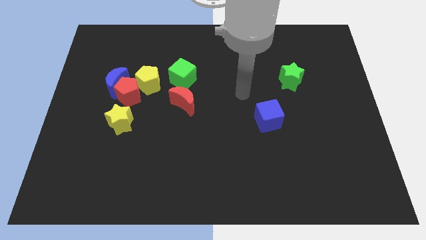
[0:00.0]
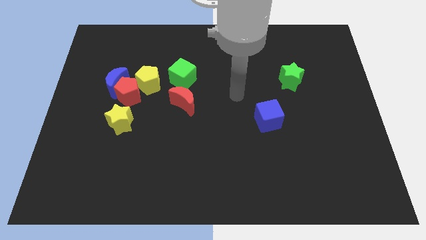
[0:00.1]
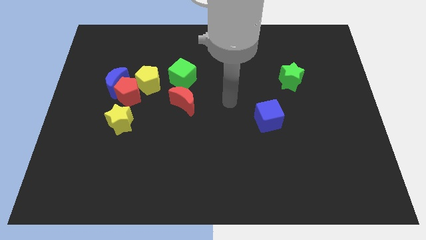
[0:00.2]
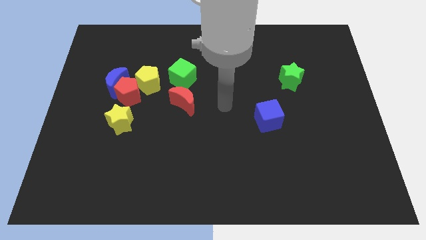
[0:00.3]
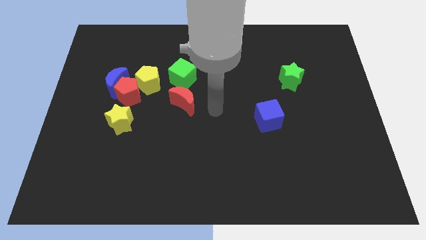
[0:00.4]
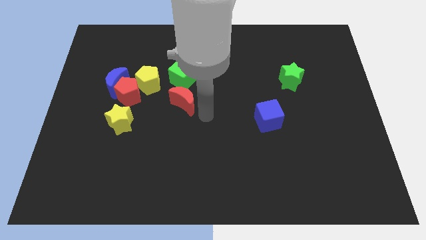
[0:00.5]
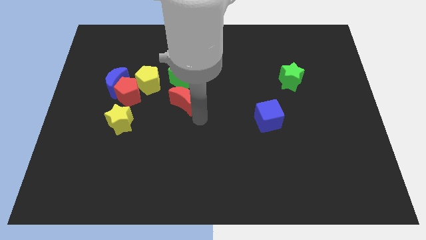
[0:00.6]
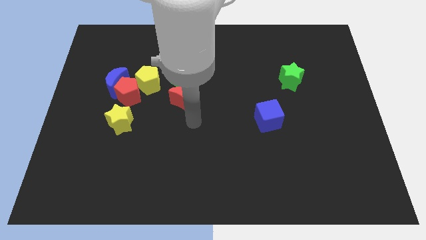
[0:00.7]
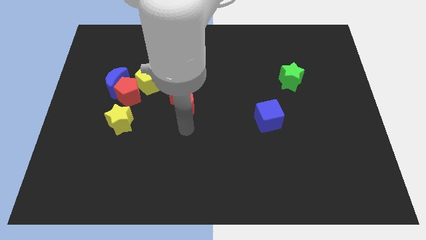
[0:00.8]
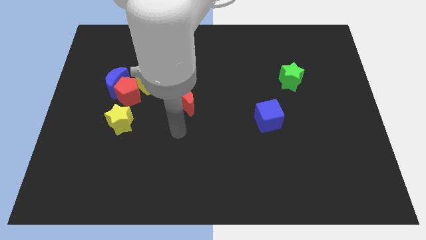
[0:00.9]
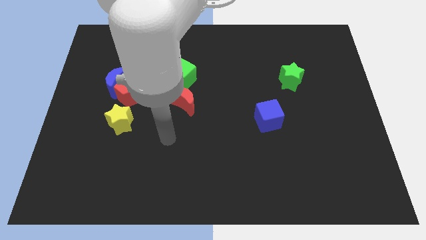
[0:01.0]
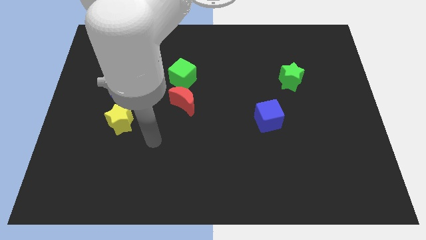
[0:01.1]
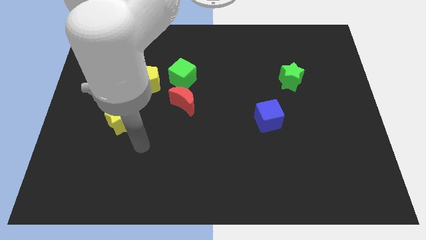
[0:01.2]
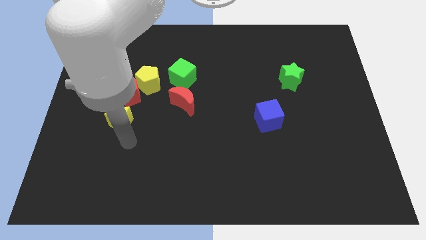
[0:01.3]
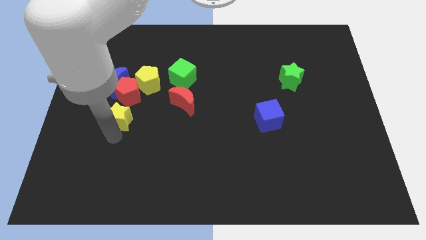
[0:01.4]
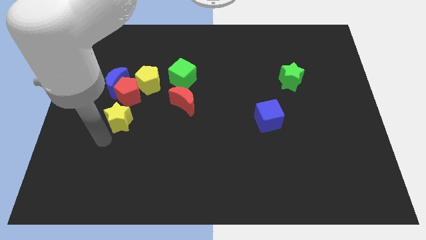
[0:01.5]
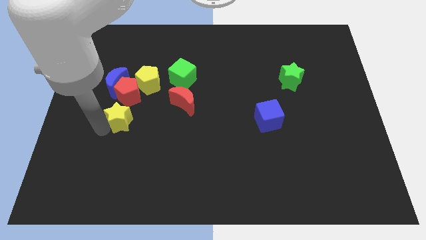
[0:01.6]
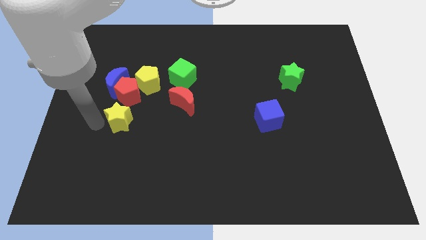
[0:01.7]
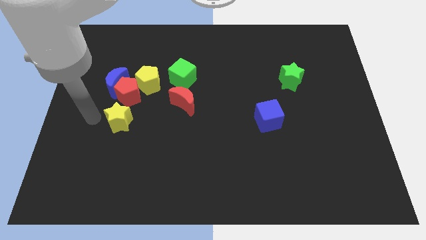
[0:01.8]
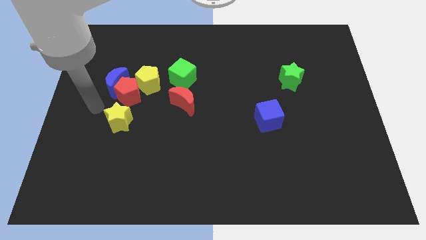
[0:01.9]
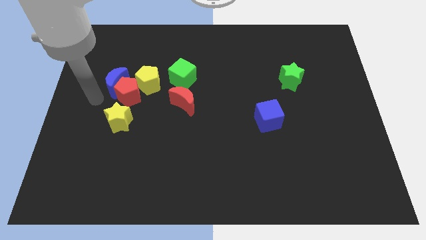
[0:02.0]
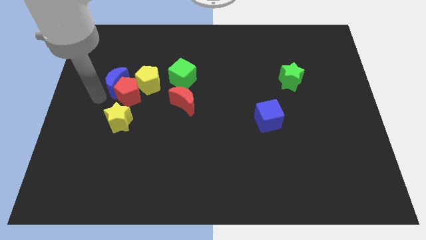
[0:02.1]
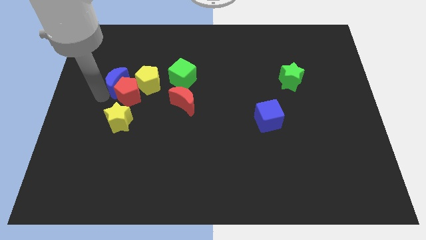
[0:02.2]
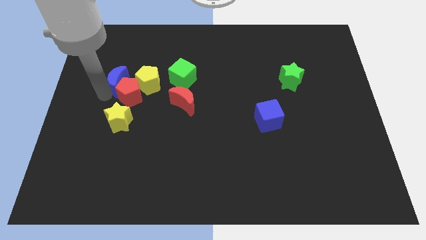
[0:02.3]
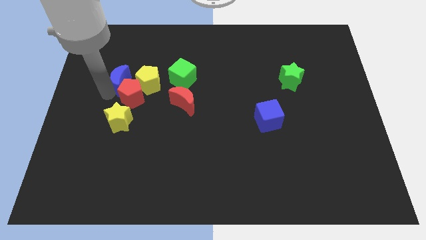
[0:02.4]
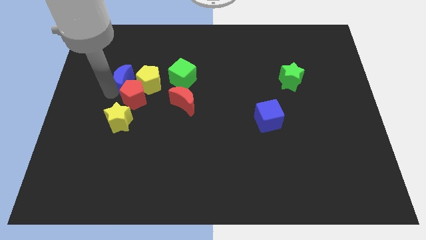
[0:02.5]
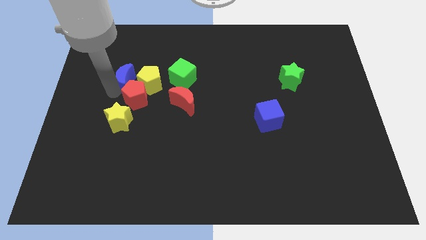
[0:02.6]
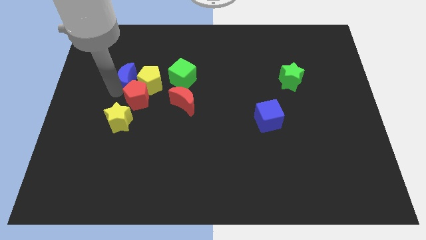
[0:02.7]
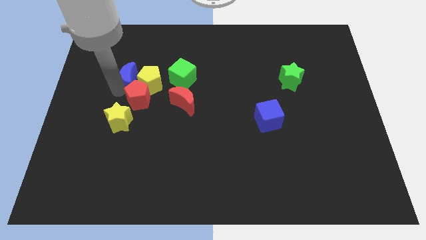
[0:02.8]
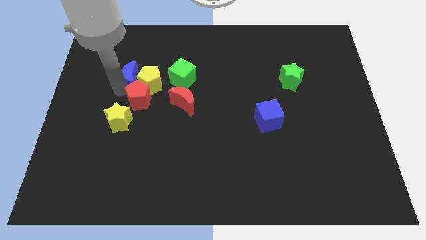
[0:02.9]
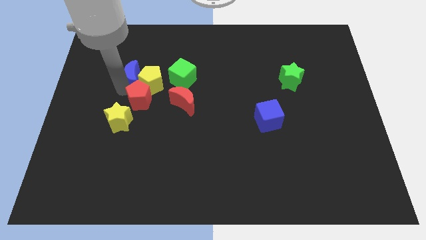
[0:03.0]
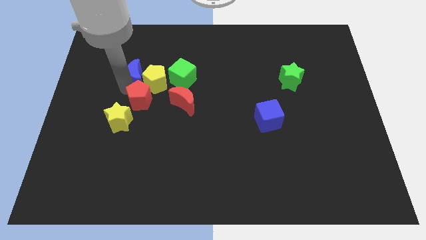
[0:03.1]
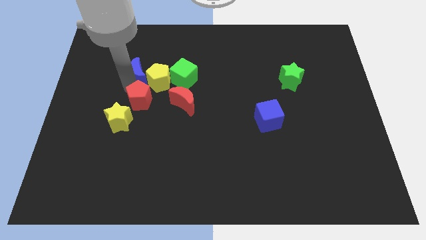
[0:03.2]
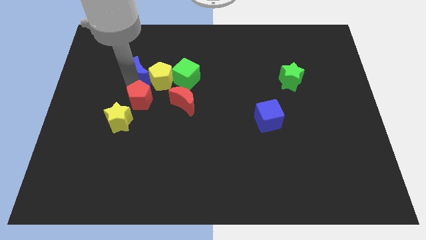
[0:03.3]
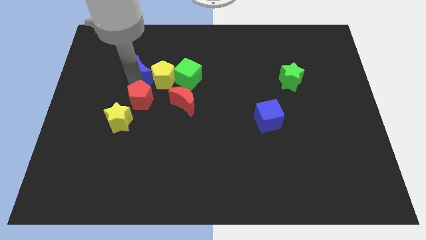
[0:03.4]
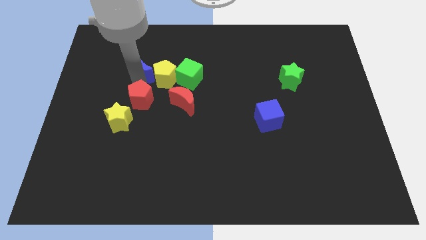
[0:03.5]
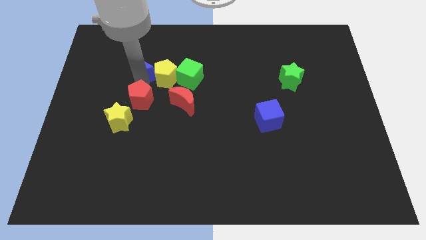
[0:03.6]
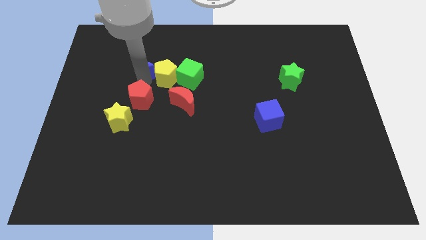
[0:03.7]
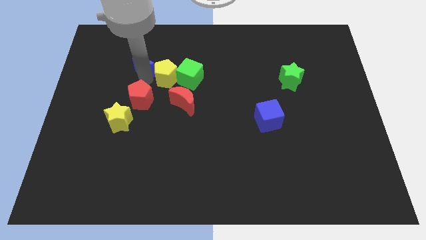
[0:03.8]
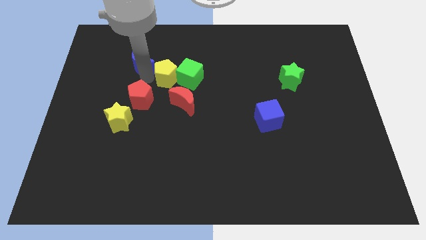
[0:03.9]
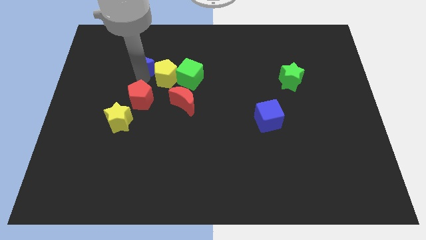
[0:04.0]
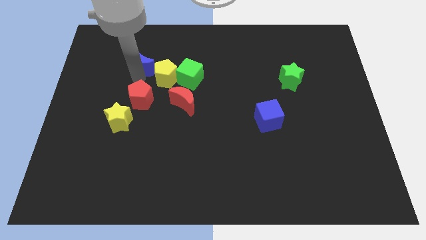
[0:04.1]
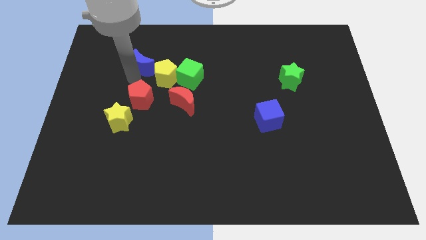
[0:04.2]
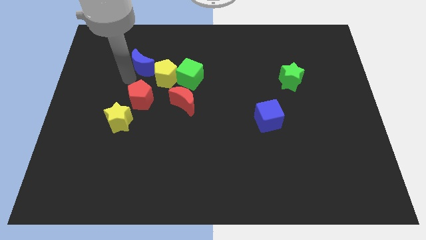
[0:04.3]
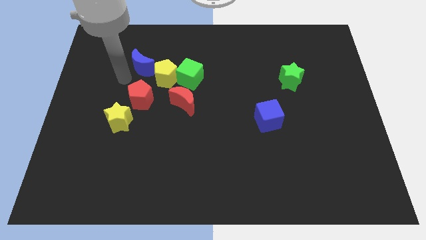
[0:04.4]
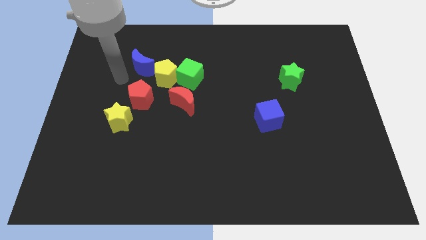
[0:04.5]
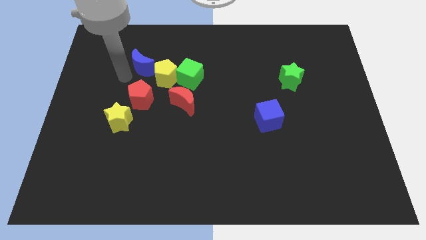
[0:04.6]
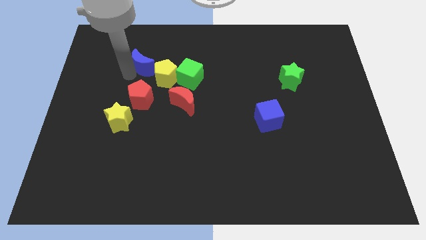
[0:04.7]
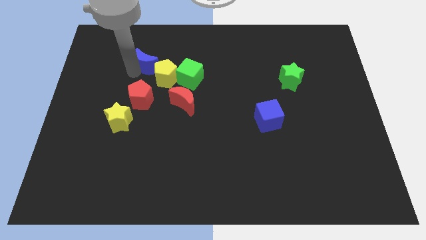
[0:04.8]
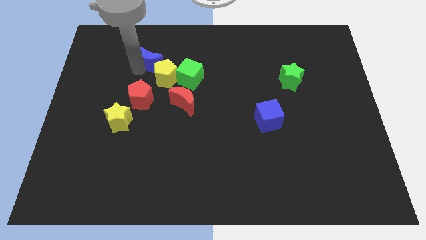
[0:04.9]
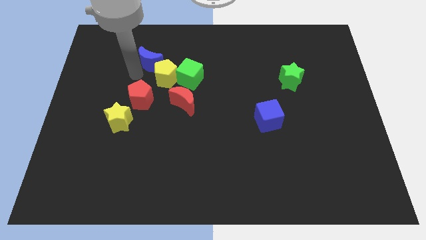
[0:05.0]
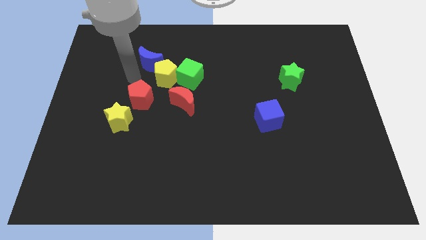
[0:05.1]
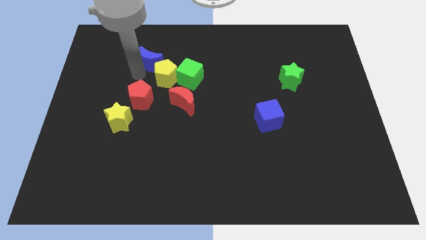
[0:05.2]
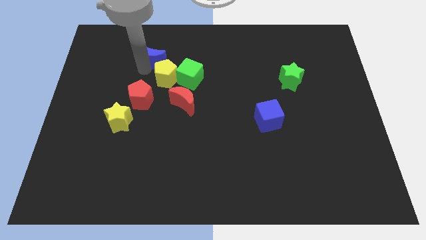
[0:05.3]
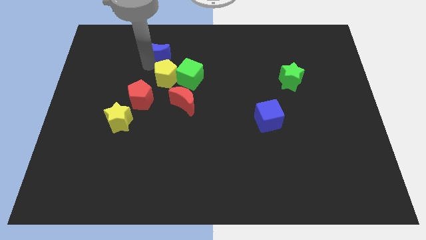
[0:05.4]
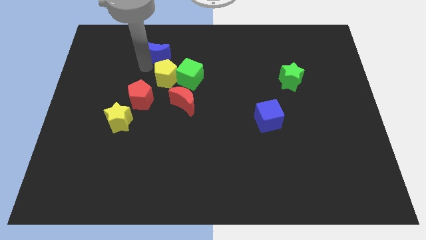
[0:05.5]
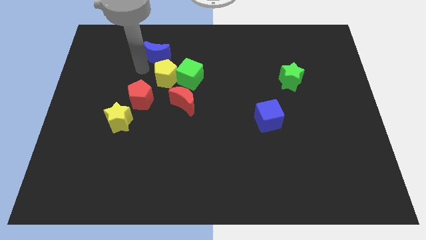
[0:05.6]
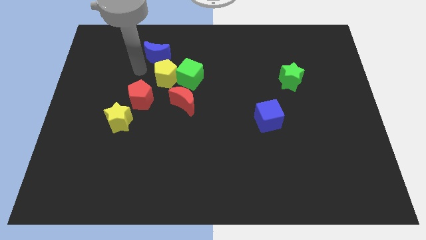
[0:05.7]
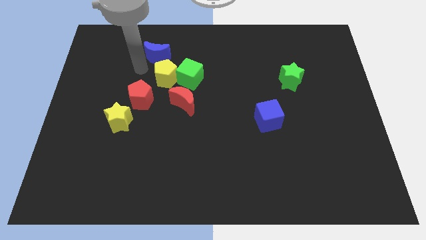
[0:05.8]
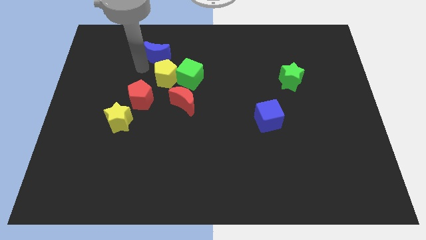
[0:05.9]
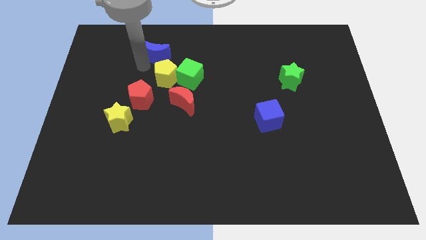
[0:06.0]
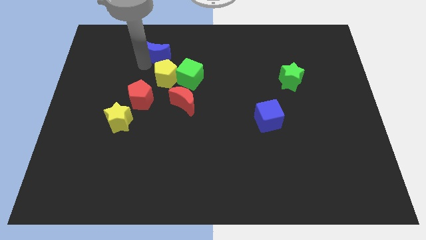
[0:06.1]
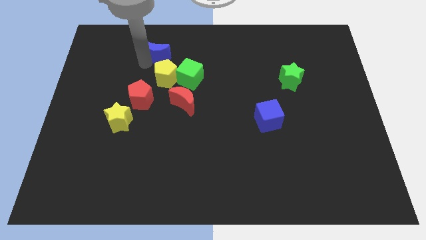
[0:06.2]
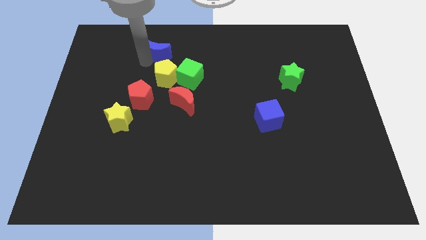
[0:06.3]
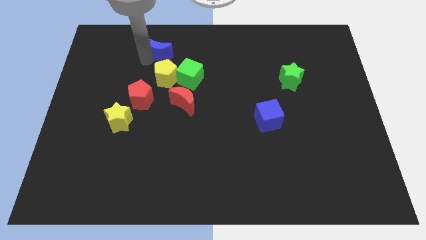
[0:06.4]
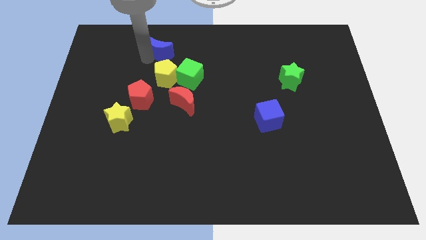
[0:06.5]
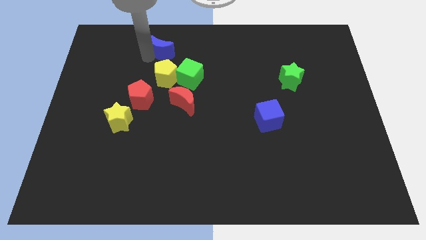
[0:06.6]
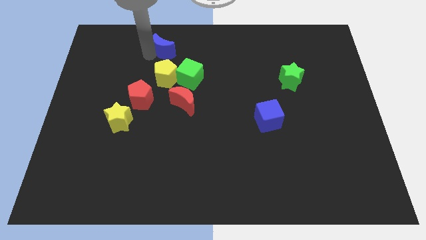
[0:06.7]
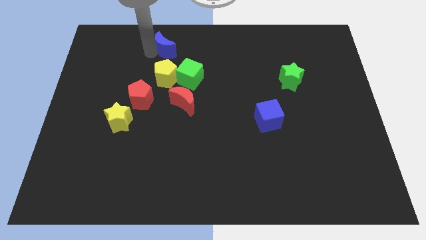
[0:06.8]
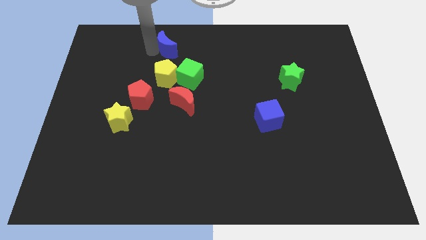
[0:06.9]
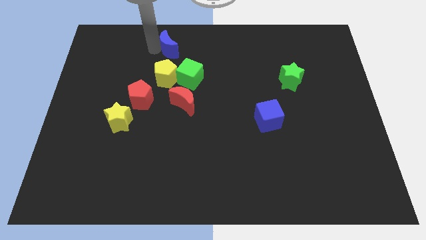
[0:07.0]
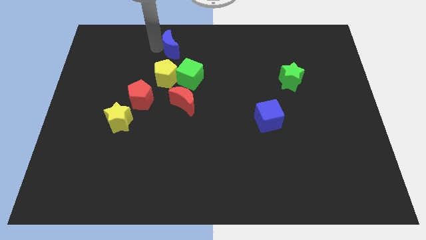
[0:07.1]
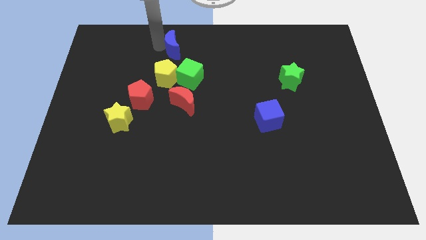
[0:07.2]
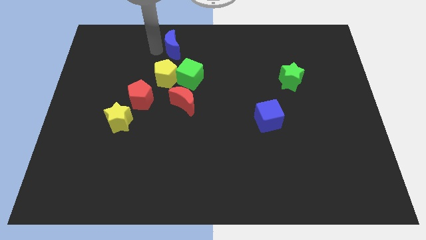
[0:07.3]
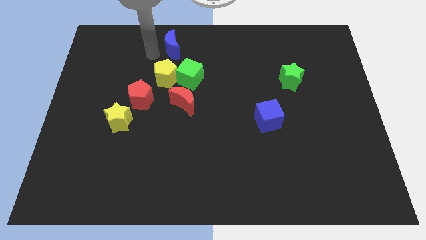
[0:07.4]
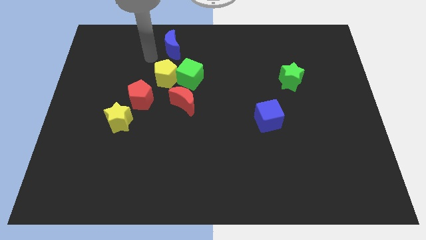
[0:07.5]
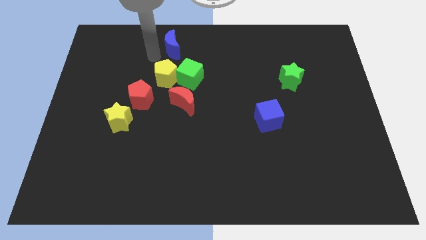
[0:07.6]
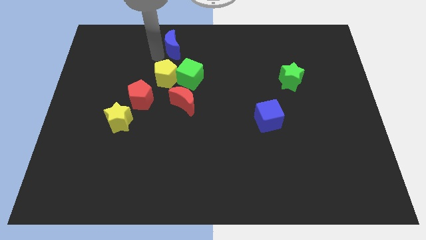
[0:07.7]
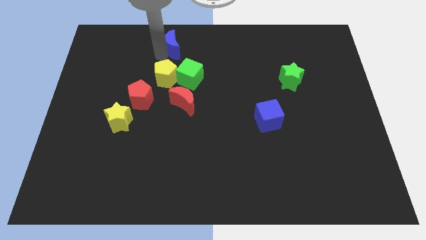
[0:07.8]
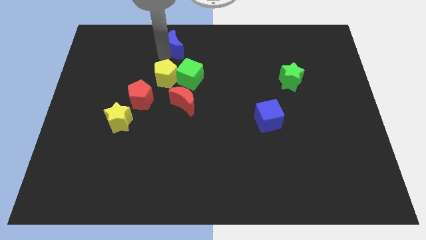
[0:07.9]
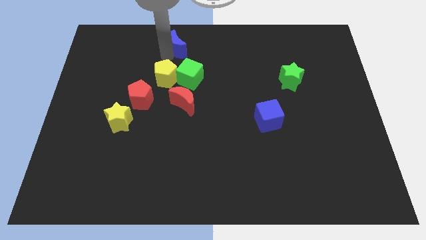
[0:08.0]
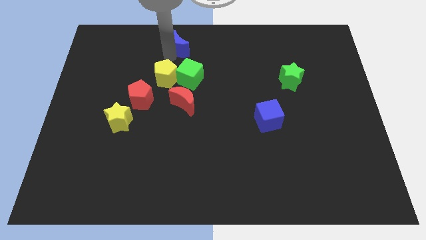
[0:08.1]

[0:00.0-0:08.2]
push the blue moon to the top
